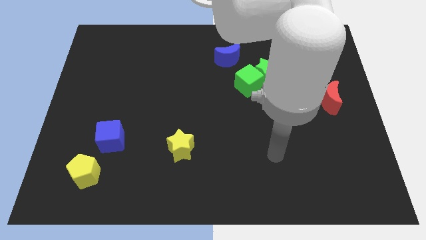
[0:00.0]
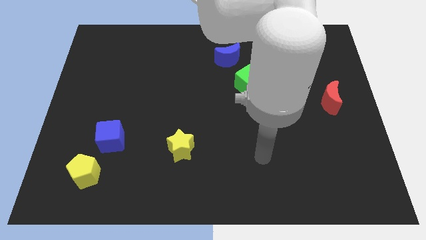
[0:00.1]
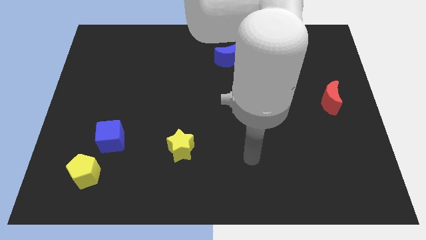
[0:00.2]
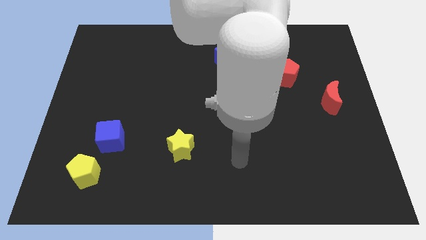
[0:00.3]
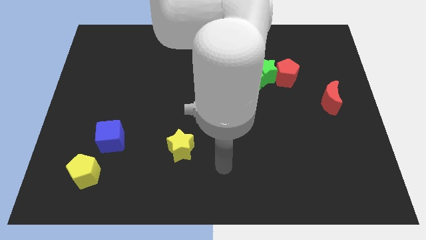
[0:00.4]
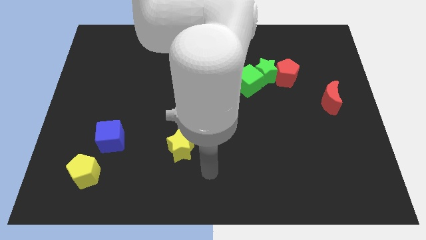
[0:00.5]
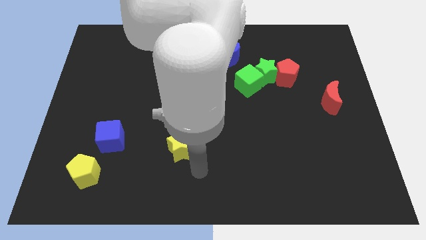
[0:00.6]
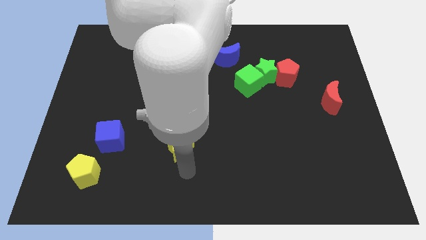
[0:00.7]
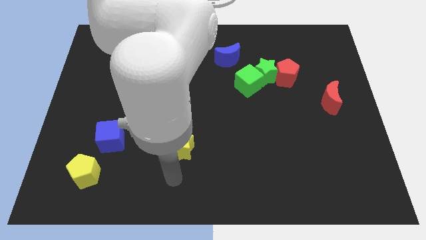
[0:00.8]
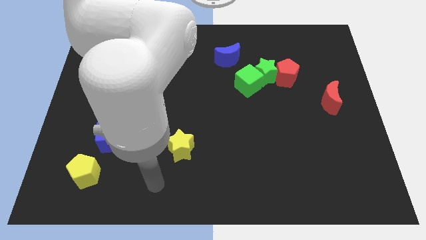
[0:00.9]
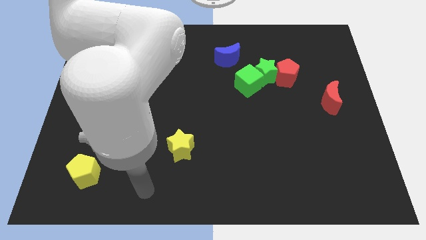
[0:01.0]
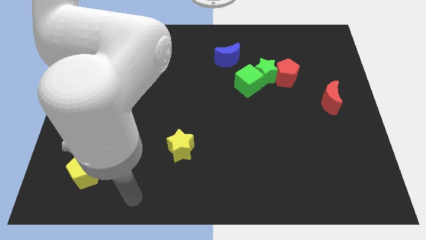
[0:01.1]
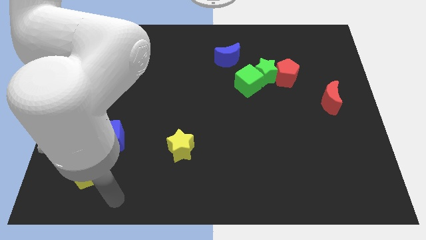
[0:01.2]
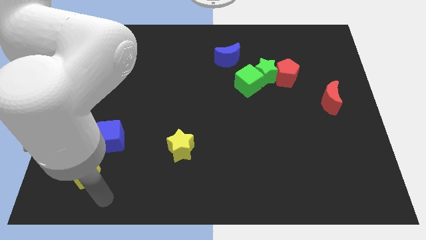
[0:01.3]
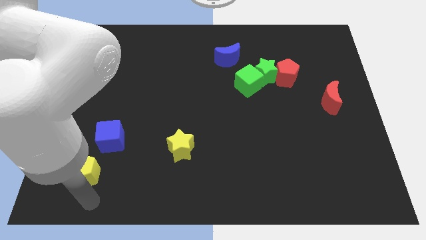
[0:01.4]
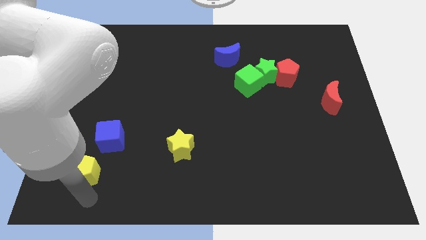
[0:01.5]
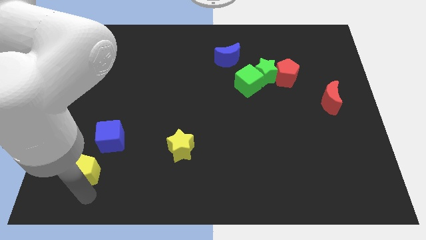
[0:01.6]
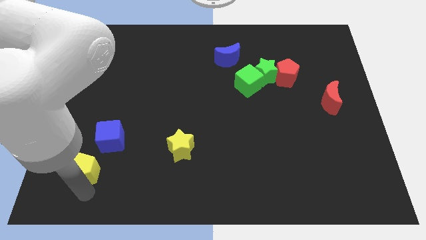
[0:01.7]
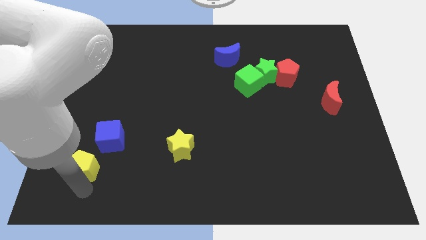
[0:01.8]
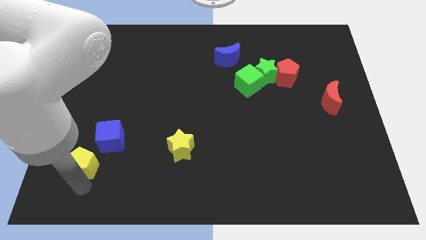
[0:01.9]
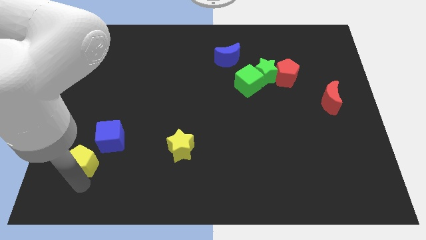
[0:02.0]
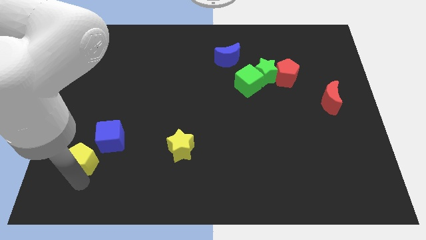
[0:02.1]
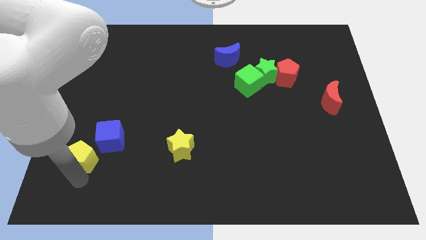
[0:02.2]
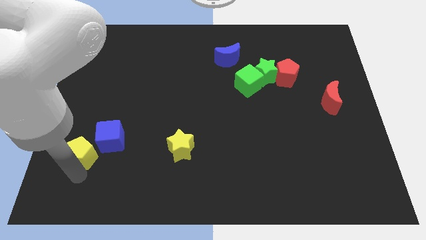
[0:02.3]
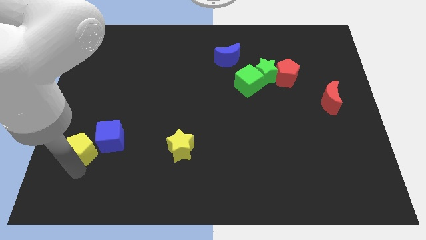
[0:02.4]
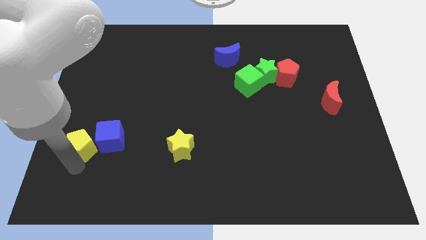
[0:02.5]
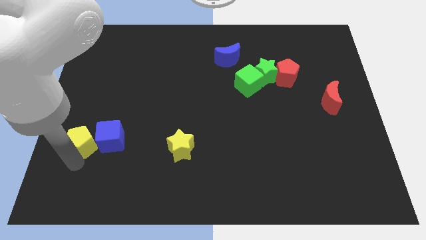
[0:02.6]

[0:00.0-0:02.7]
push the yellow pentagon slightly upwards

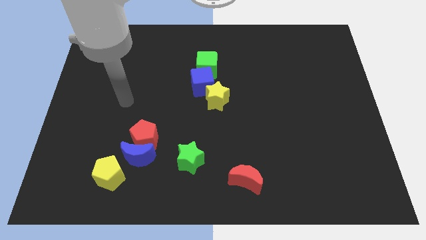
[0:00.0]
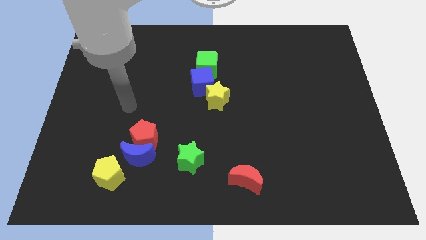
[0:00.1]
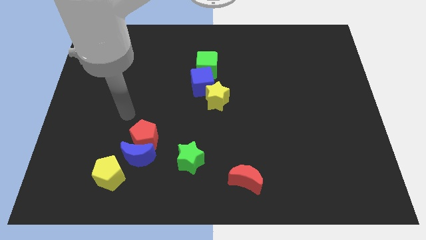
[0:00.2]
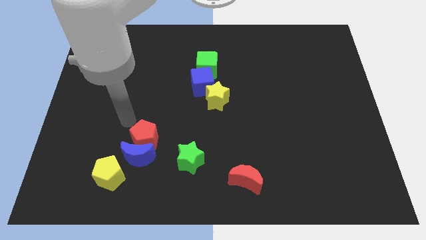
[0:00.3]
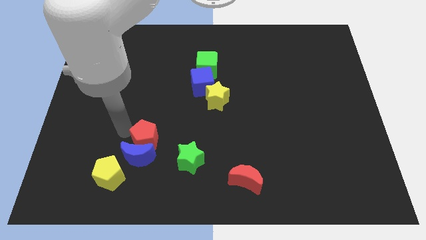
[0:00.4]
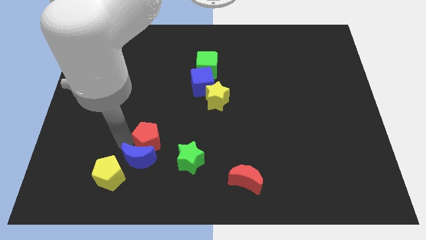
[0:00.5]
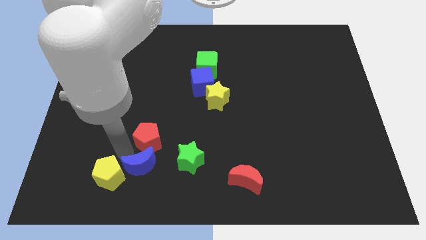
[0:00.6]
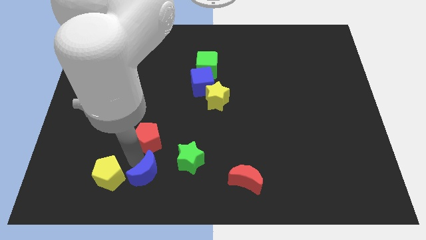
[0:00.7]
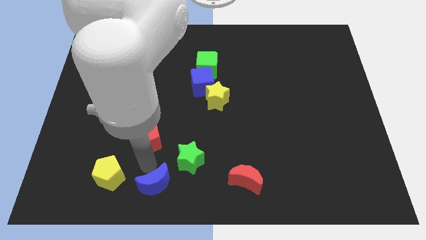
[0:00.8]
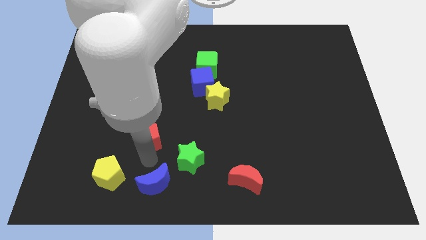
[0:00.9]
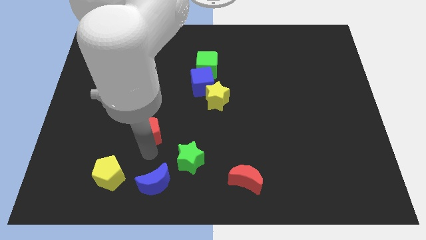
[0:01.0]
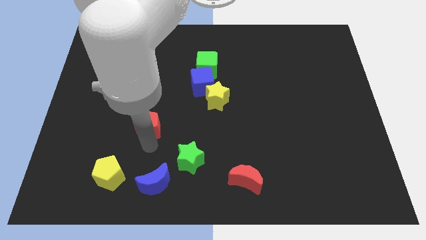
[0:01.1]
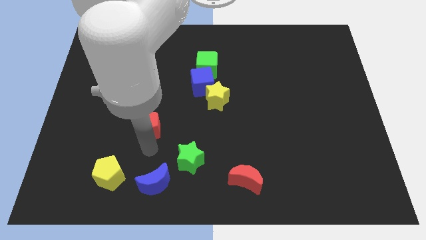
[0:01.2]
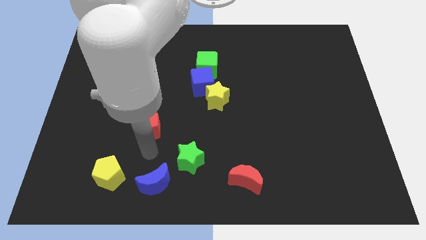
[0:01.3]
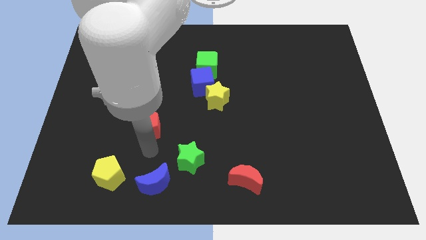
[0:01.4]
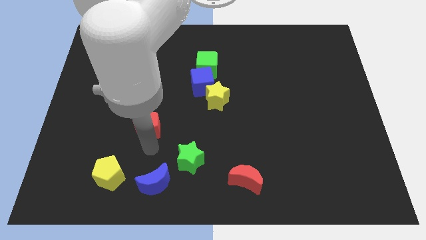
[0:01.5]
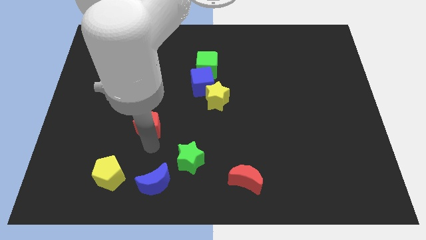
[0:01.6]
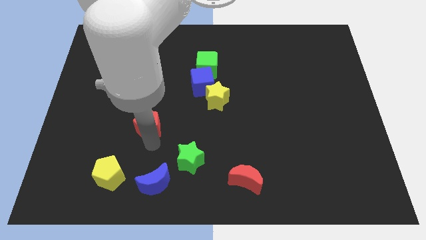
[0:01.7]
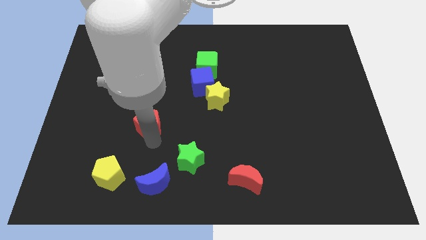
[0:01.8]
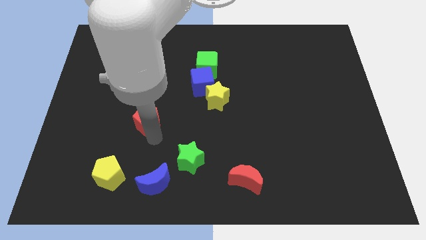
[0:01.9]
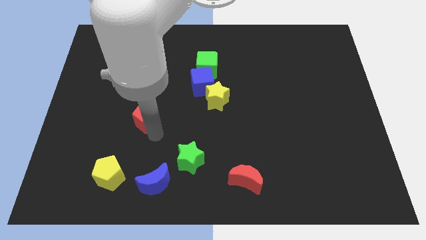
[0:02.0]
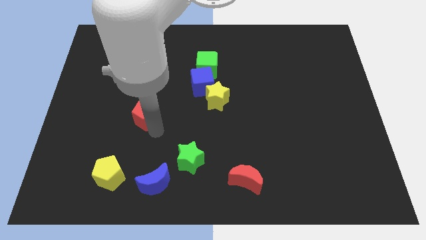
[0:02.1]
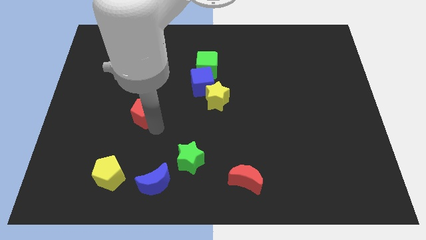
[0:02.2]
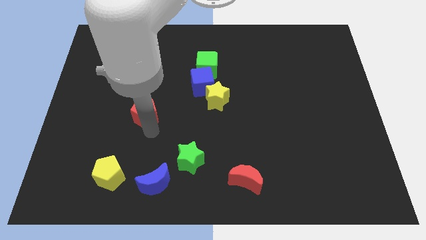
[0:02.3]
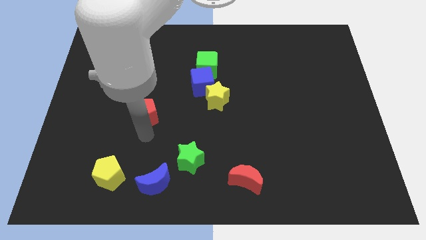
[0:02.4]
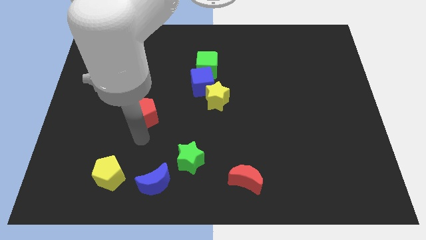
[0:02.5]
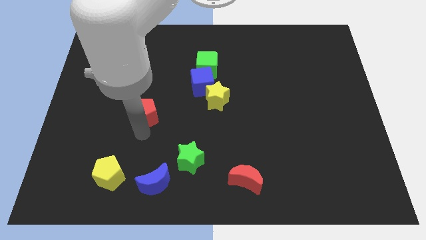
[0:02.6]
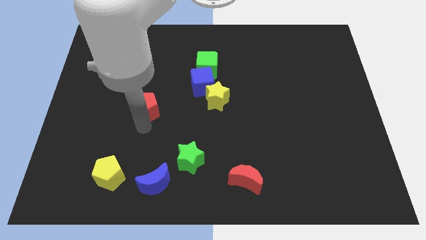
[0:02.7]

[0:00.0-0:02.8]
slightly move the red pentagon upwards

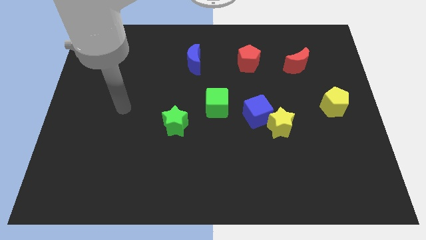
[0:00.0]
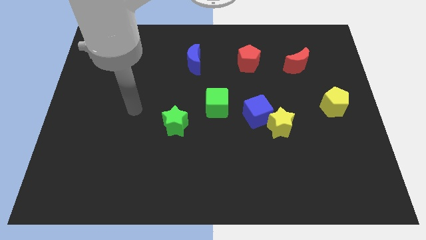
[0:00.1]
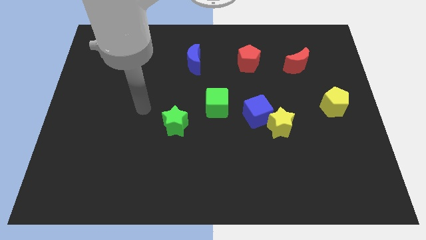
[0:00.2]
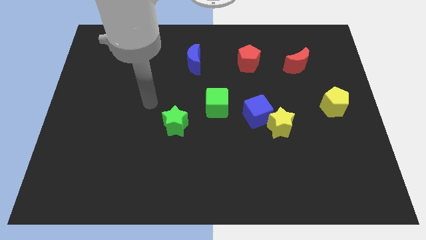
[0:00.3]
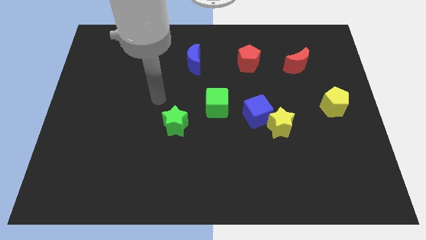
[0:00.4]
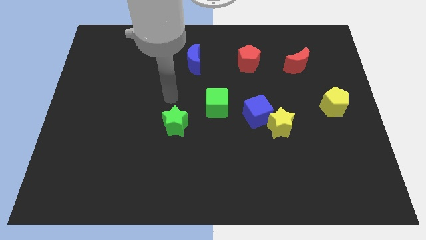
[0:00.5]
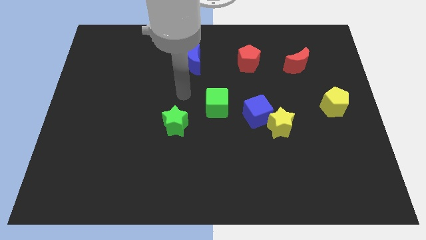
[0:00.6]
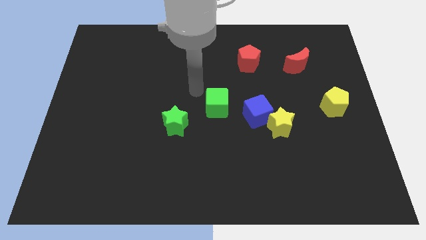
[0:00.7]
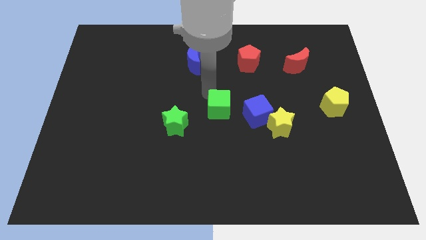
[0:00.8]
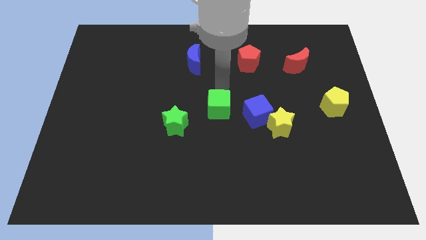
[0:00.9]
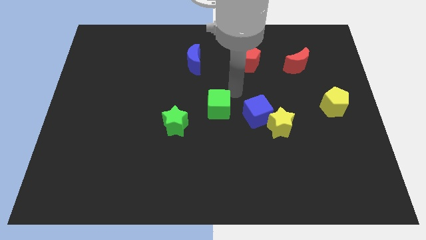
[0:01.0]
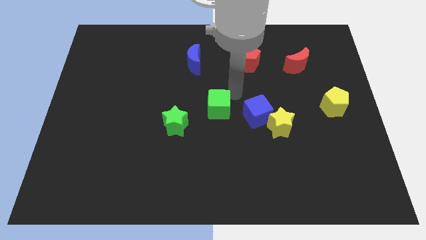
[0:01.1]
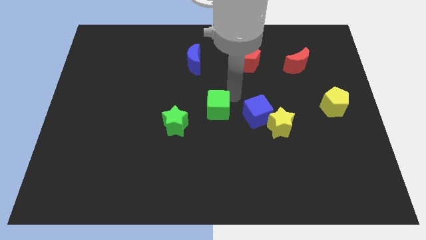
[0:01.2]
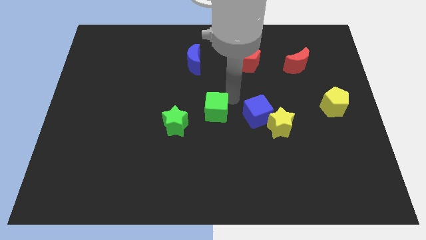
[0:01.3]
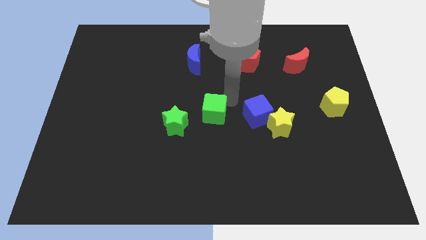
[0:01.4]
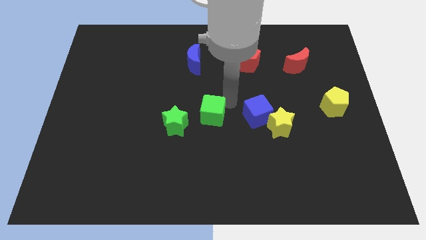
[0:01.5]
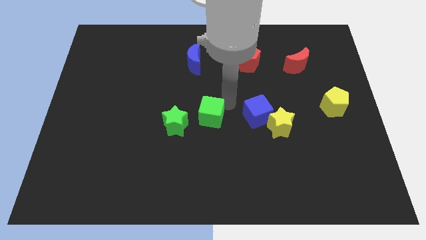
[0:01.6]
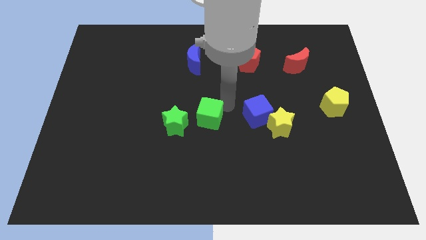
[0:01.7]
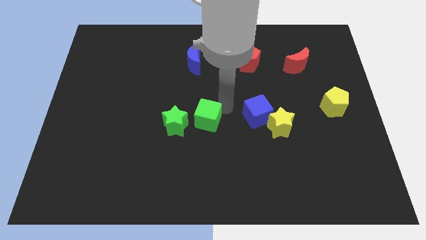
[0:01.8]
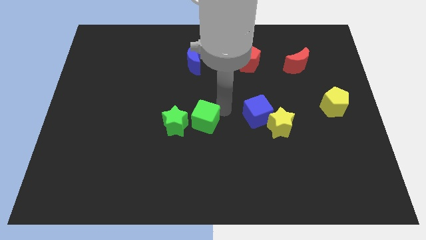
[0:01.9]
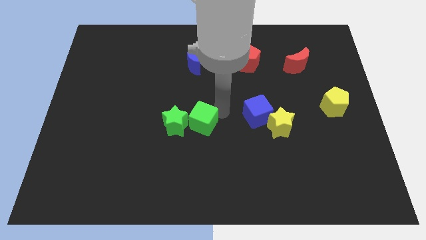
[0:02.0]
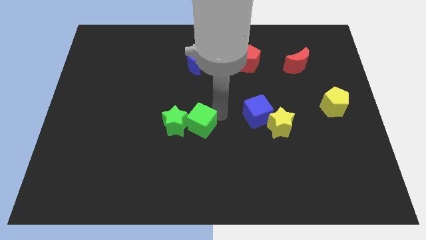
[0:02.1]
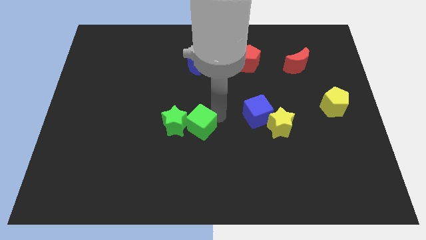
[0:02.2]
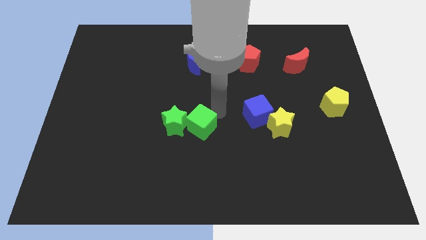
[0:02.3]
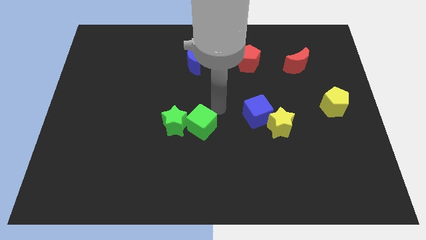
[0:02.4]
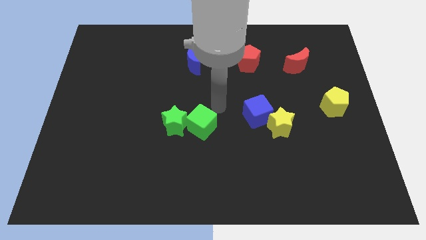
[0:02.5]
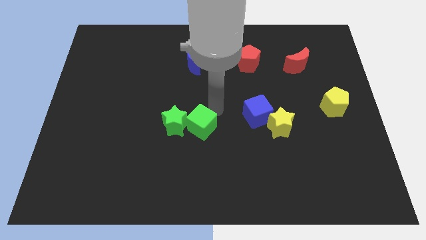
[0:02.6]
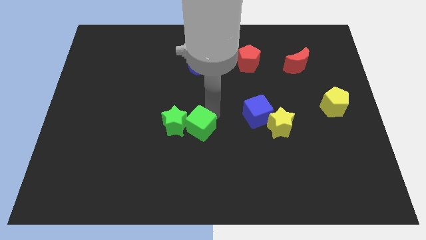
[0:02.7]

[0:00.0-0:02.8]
slightly move the green cube diagonally downwards and left
